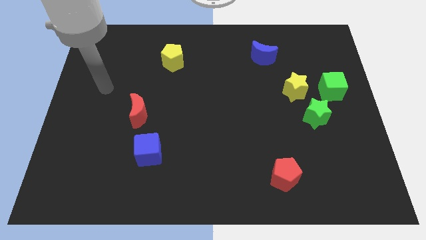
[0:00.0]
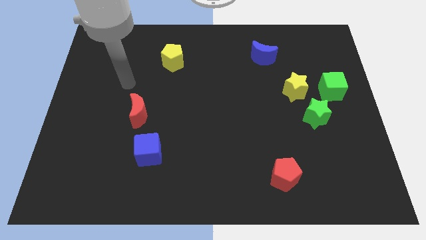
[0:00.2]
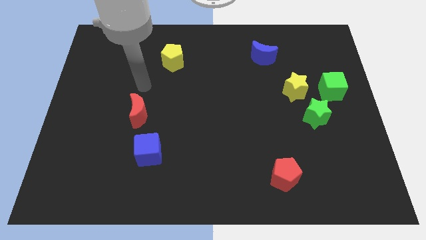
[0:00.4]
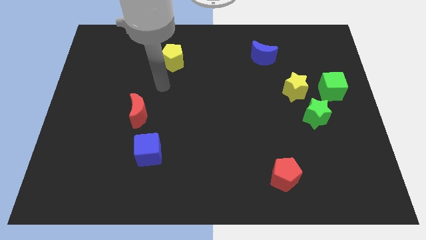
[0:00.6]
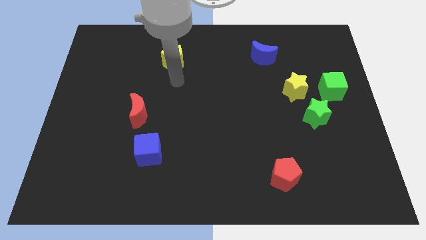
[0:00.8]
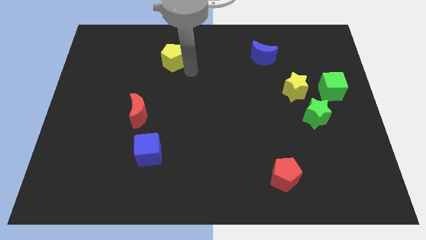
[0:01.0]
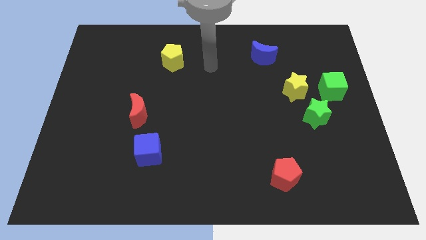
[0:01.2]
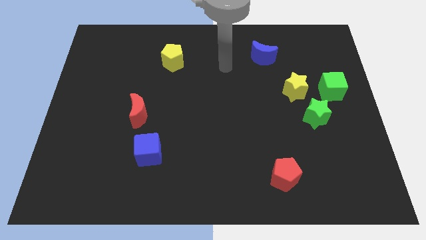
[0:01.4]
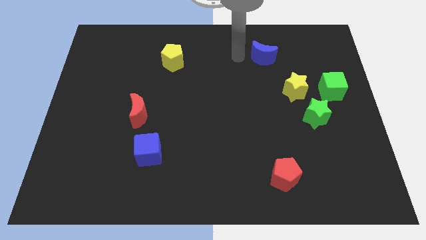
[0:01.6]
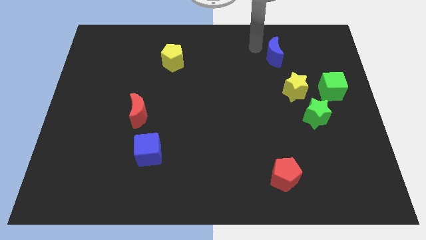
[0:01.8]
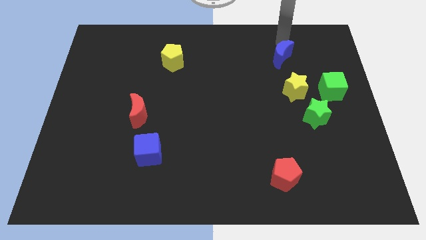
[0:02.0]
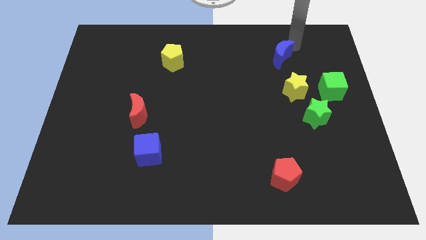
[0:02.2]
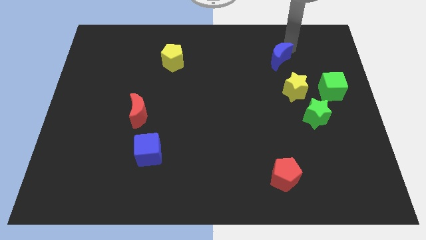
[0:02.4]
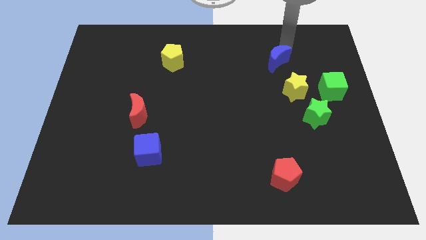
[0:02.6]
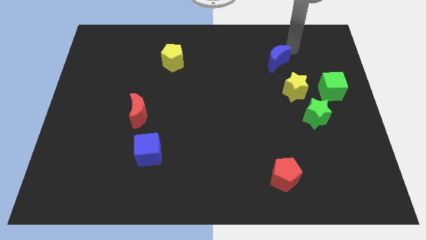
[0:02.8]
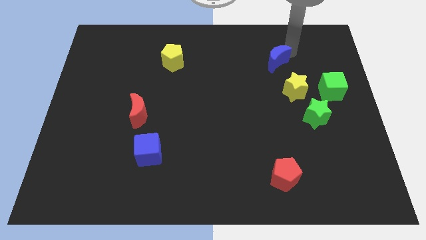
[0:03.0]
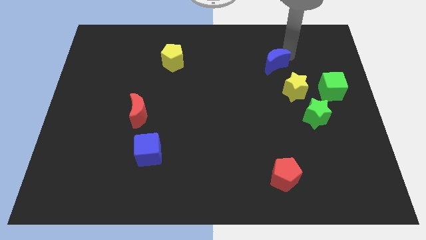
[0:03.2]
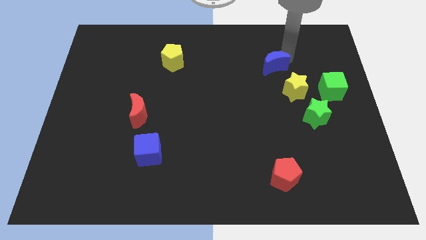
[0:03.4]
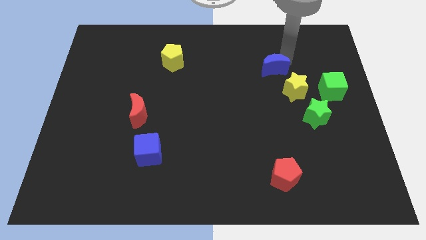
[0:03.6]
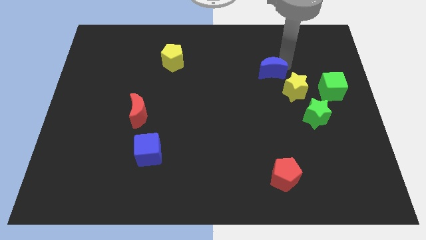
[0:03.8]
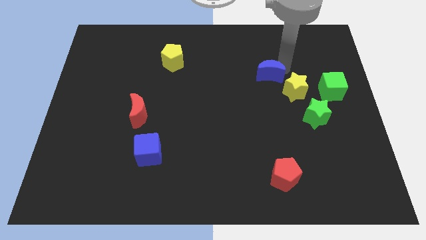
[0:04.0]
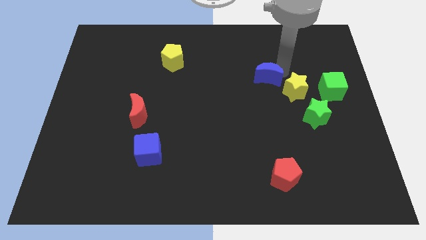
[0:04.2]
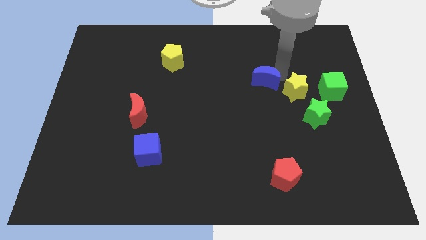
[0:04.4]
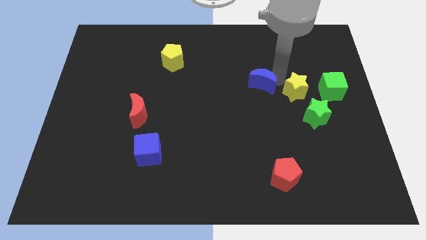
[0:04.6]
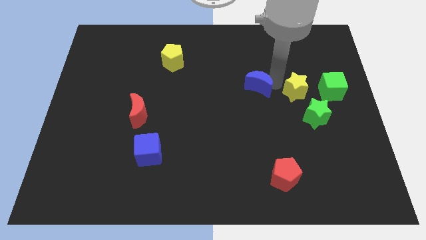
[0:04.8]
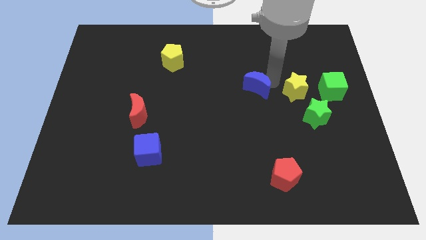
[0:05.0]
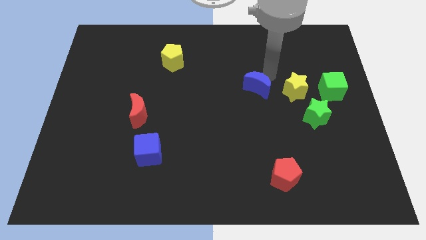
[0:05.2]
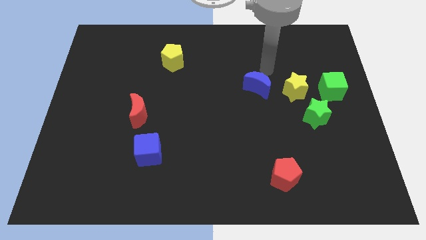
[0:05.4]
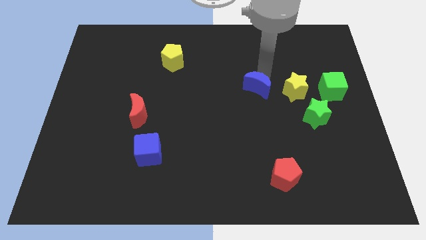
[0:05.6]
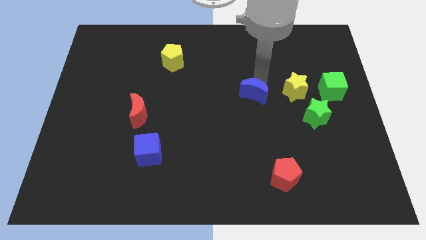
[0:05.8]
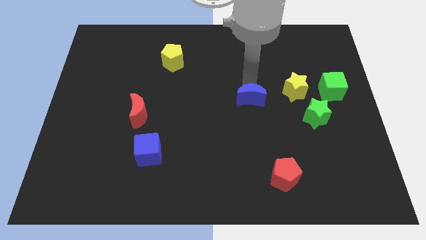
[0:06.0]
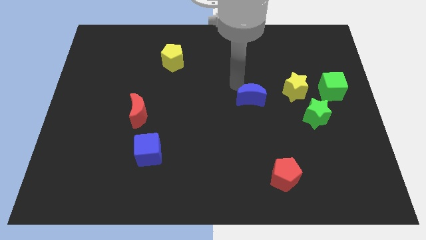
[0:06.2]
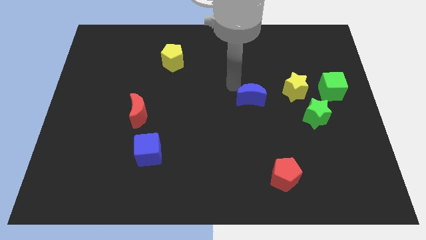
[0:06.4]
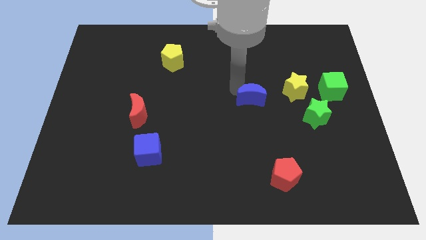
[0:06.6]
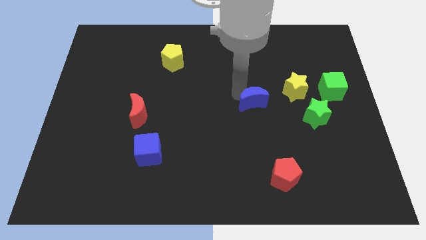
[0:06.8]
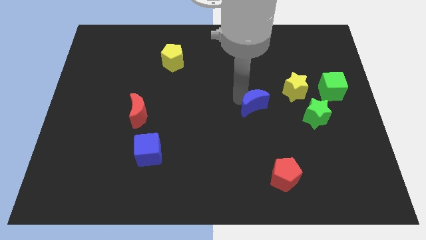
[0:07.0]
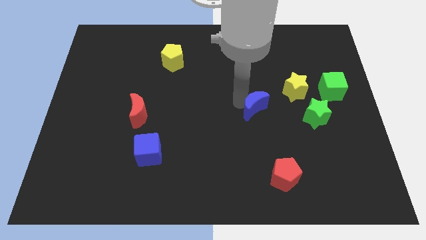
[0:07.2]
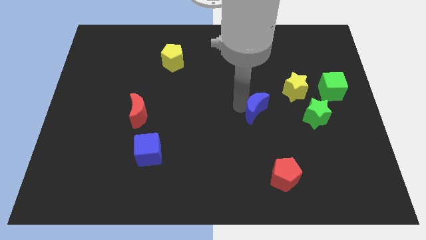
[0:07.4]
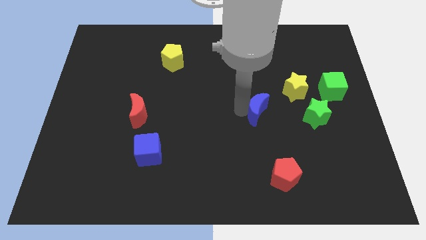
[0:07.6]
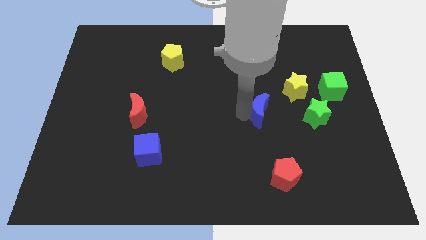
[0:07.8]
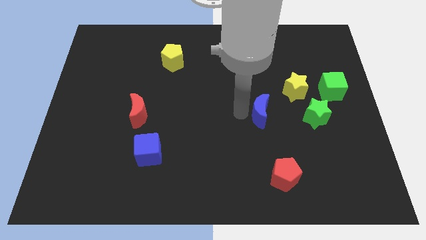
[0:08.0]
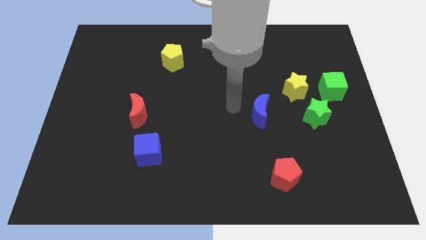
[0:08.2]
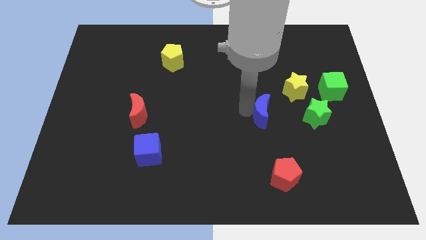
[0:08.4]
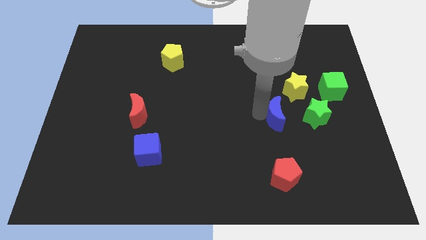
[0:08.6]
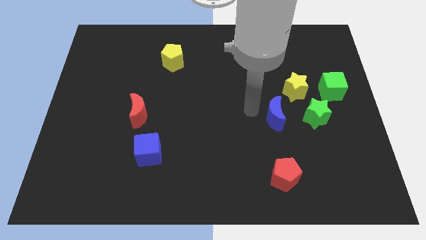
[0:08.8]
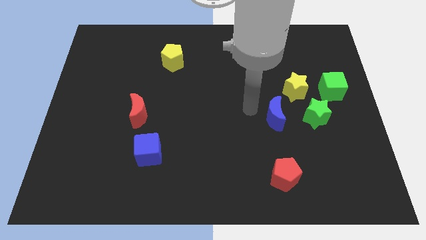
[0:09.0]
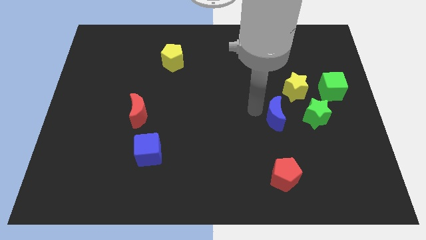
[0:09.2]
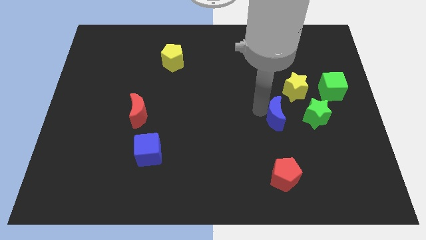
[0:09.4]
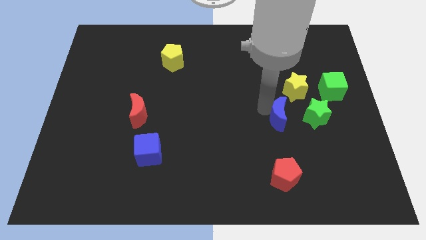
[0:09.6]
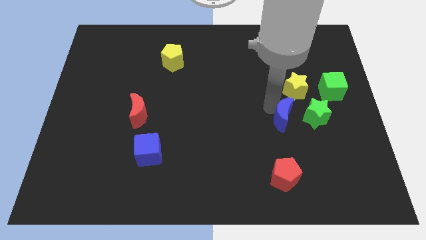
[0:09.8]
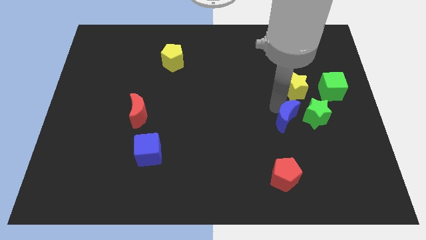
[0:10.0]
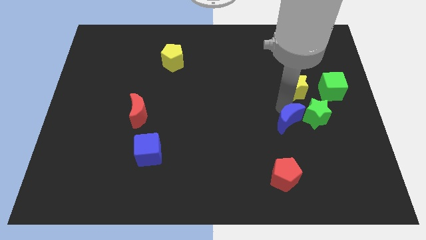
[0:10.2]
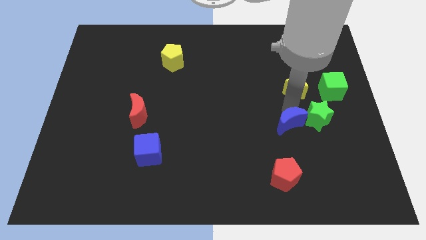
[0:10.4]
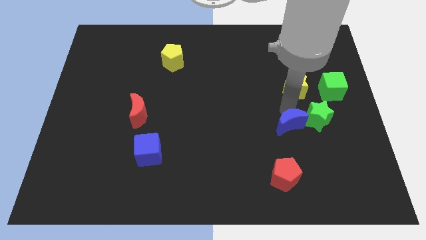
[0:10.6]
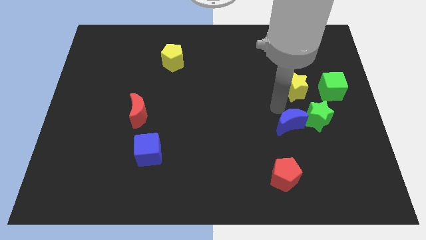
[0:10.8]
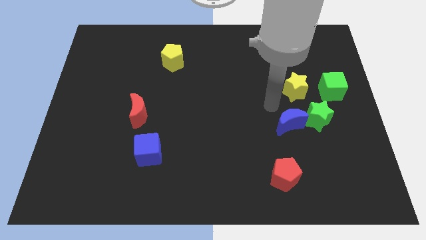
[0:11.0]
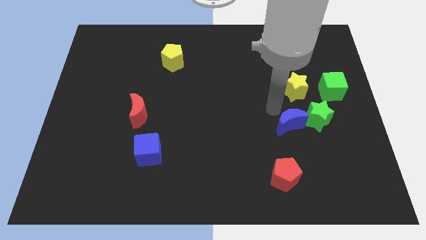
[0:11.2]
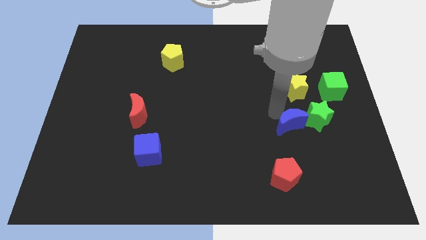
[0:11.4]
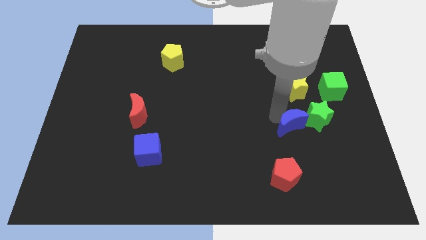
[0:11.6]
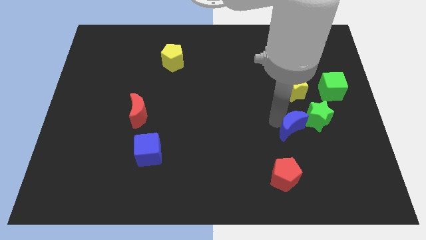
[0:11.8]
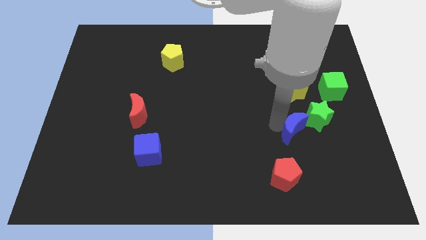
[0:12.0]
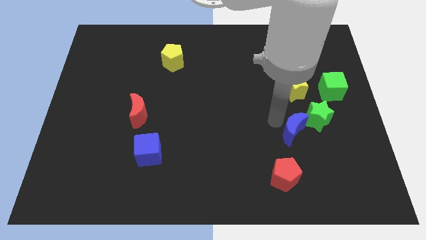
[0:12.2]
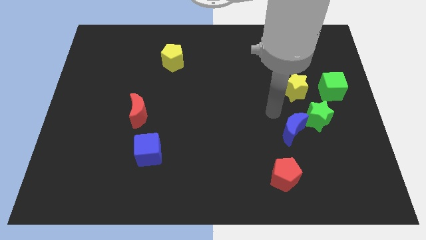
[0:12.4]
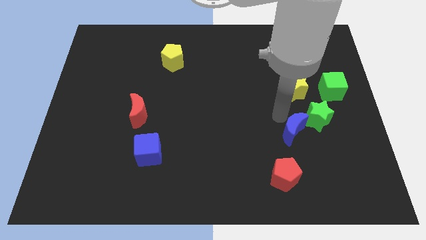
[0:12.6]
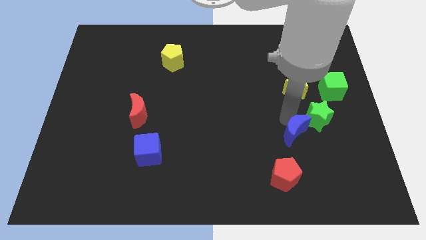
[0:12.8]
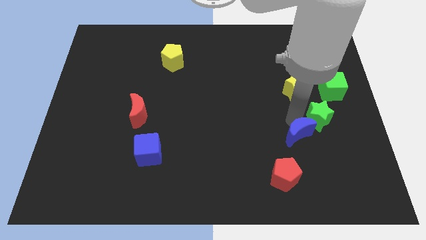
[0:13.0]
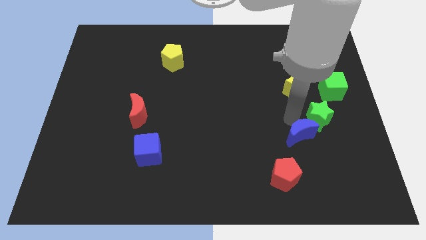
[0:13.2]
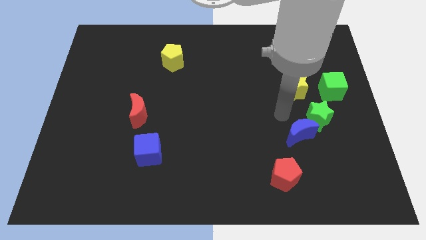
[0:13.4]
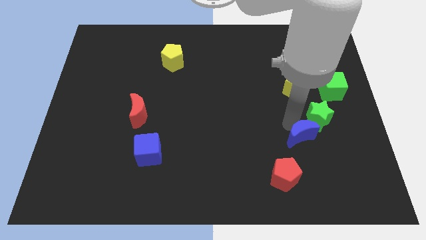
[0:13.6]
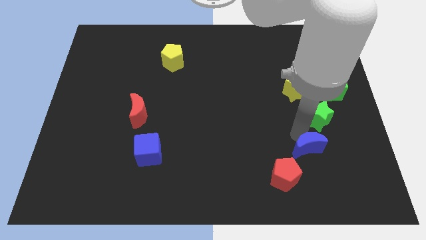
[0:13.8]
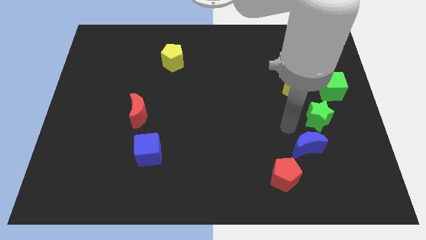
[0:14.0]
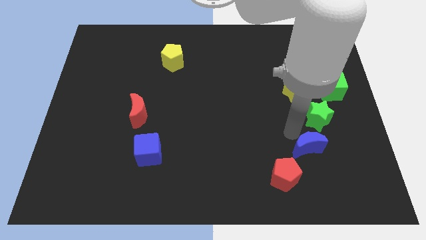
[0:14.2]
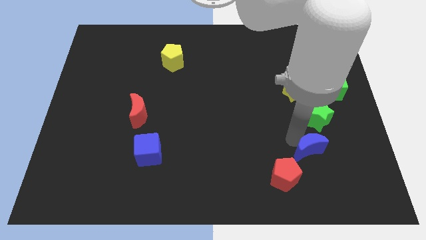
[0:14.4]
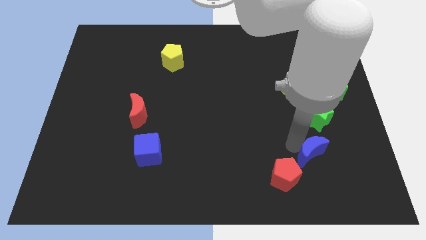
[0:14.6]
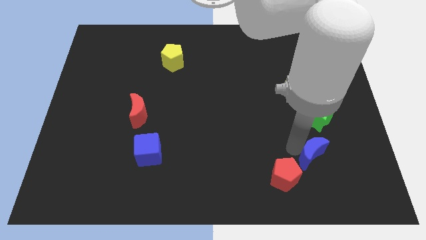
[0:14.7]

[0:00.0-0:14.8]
put the blue moon to the right of the red pentagon

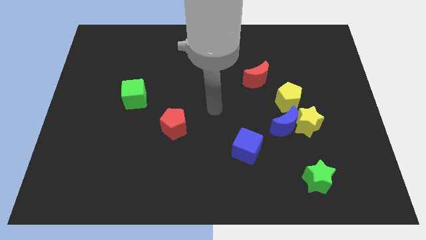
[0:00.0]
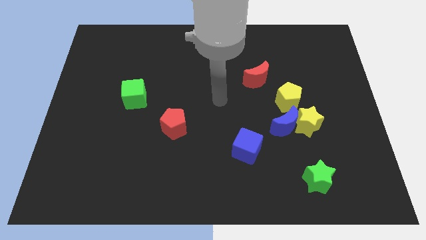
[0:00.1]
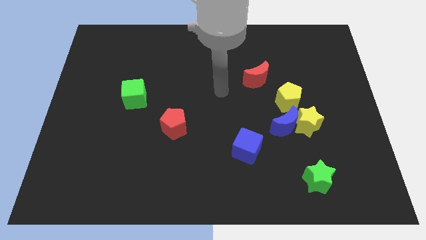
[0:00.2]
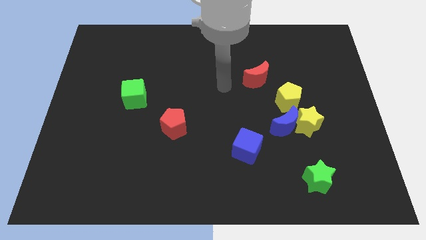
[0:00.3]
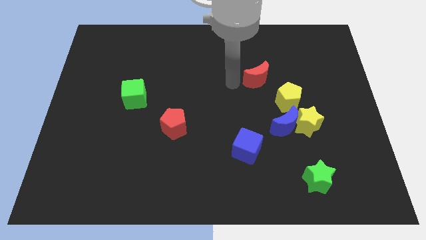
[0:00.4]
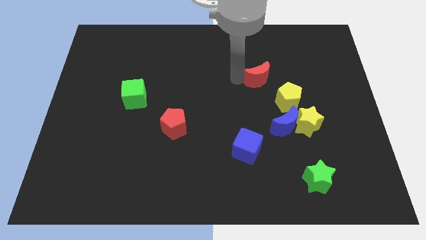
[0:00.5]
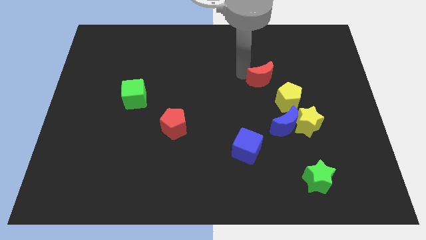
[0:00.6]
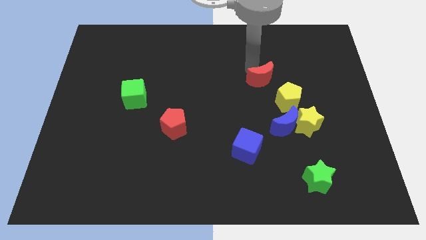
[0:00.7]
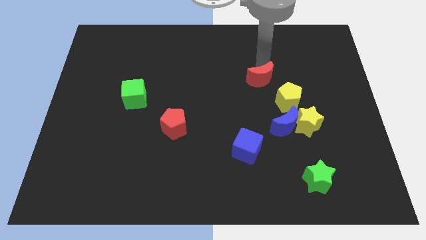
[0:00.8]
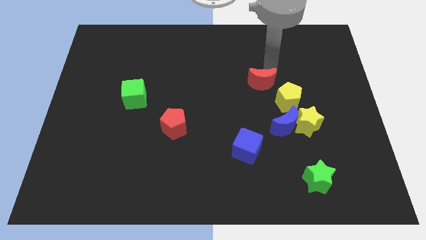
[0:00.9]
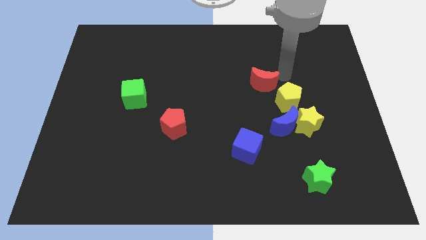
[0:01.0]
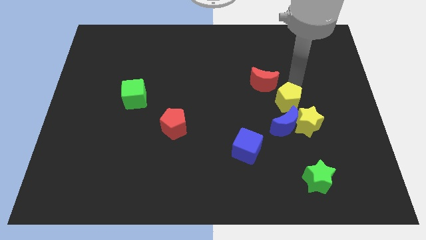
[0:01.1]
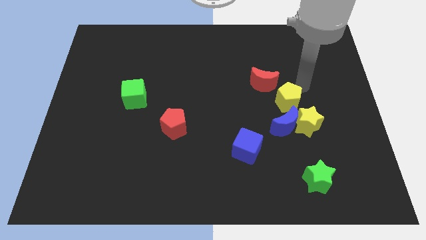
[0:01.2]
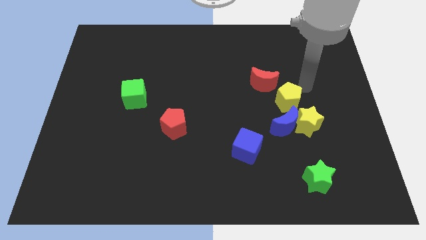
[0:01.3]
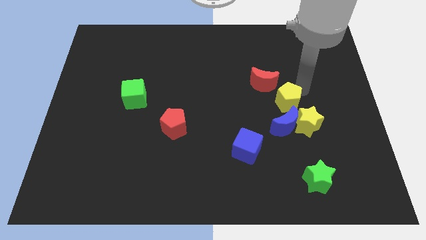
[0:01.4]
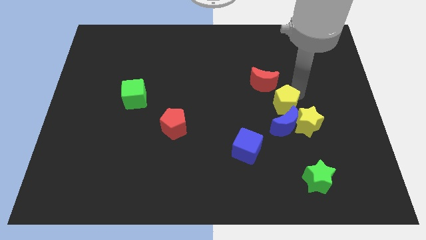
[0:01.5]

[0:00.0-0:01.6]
move the yellow pentagon to the bottom side of the red moon
